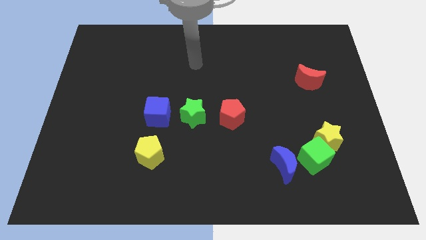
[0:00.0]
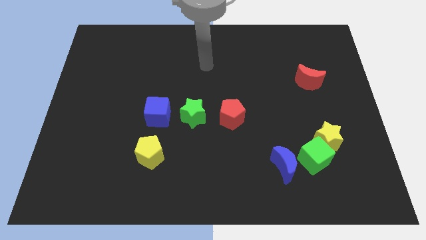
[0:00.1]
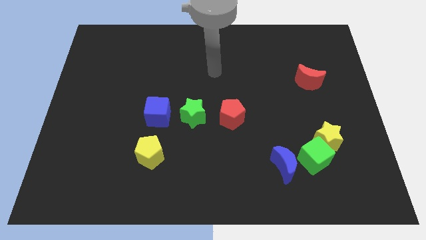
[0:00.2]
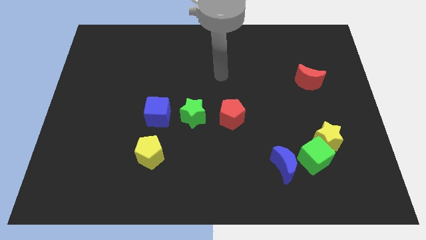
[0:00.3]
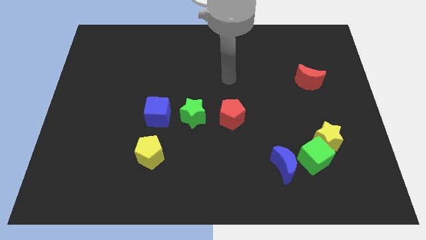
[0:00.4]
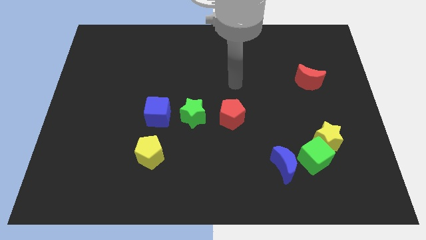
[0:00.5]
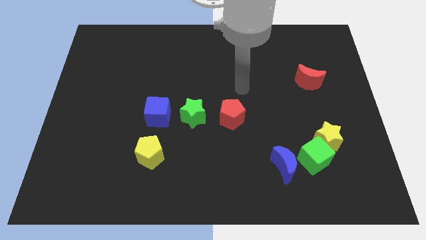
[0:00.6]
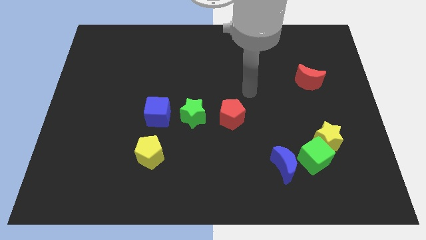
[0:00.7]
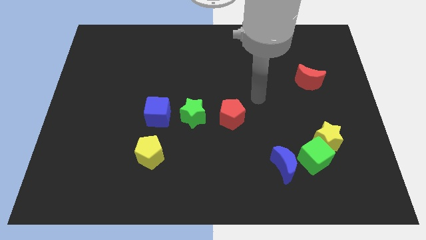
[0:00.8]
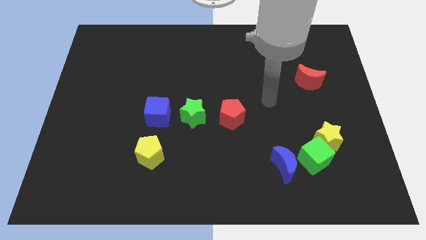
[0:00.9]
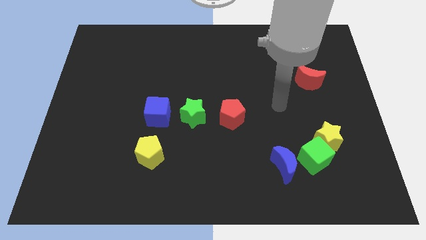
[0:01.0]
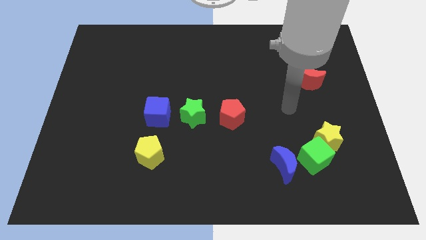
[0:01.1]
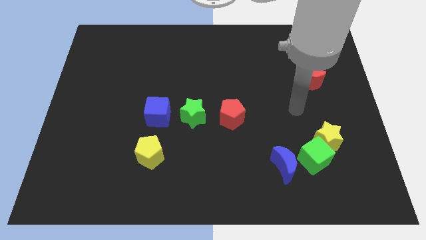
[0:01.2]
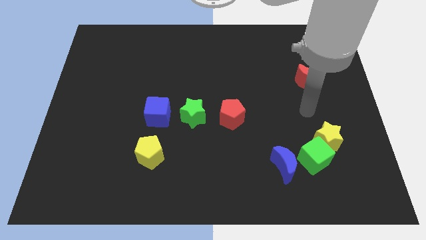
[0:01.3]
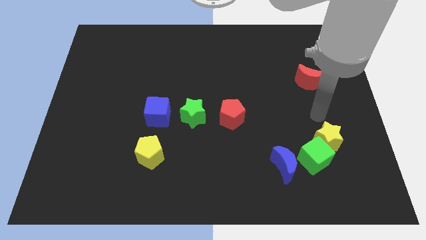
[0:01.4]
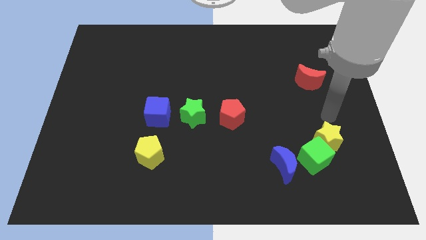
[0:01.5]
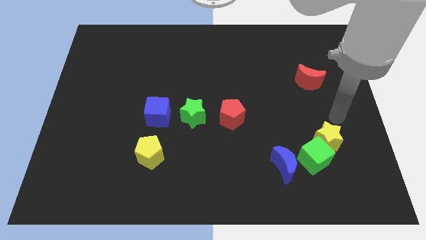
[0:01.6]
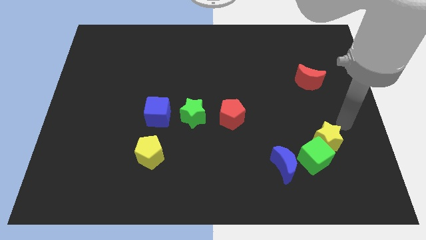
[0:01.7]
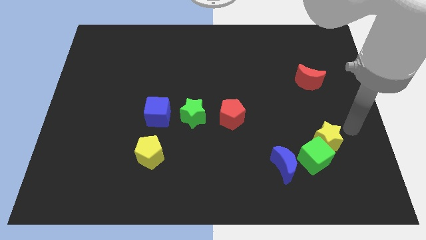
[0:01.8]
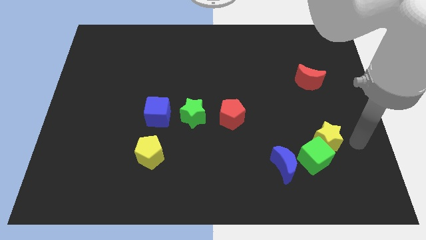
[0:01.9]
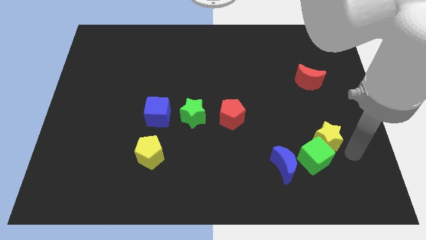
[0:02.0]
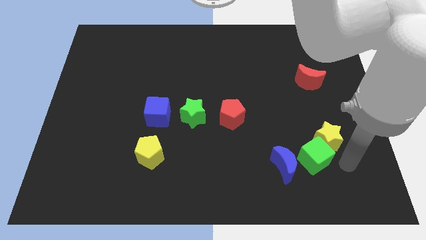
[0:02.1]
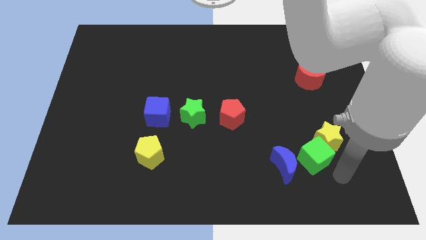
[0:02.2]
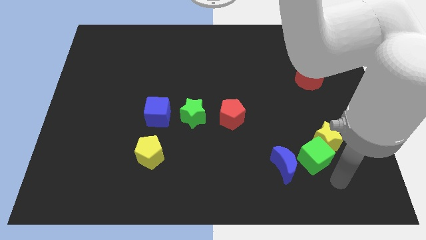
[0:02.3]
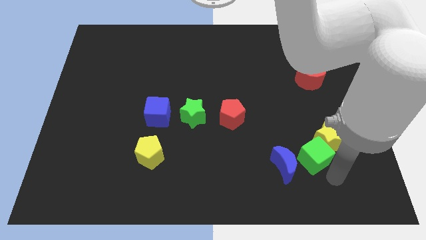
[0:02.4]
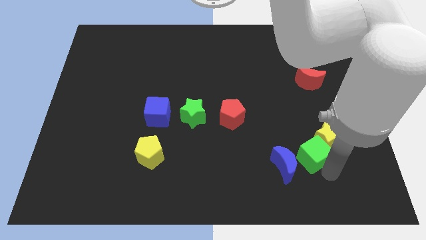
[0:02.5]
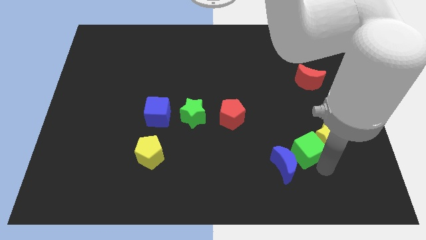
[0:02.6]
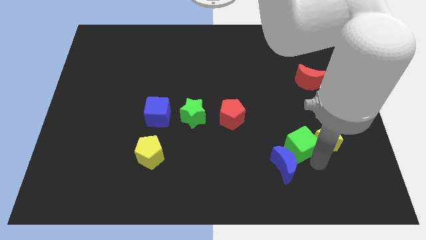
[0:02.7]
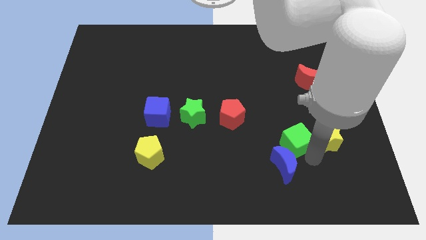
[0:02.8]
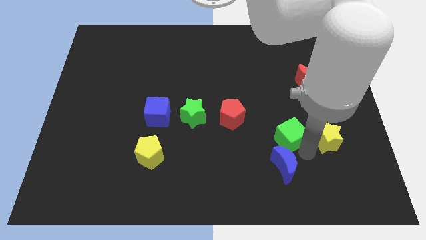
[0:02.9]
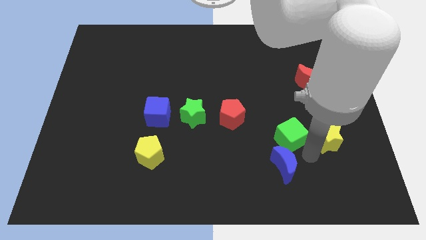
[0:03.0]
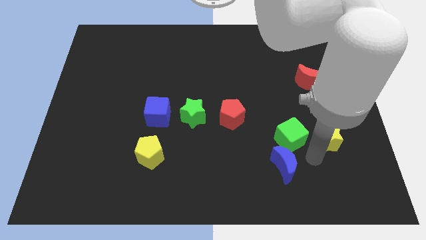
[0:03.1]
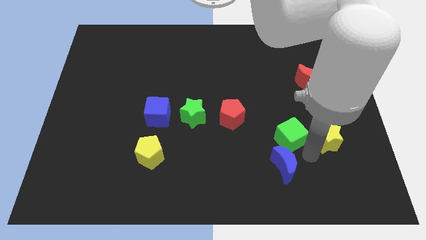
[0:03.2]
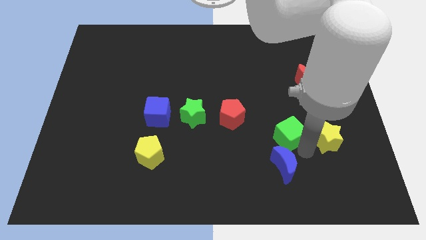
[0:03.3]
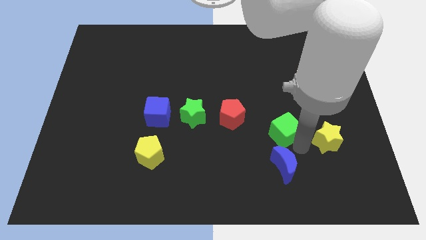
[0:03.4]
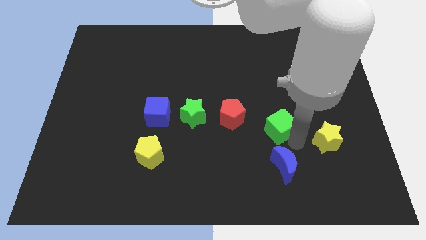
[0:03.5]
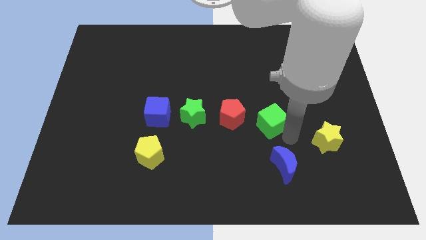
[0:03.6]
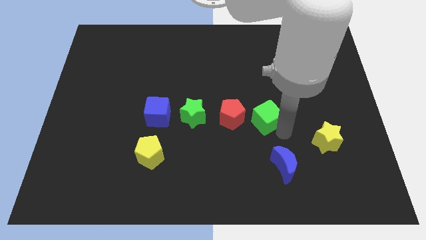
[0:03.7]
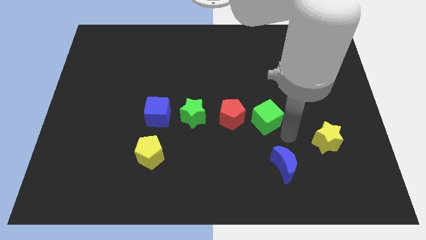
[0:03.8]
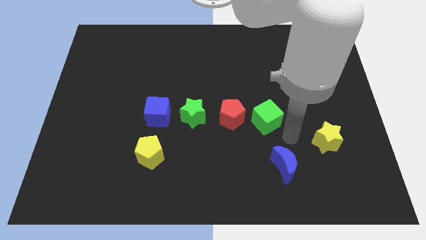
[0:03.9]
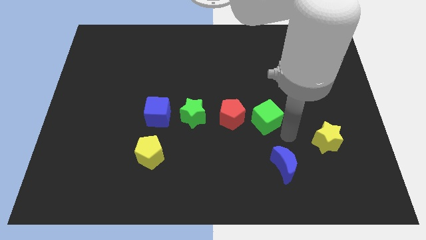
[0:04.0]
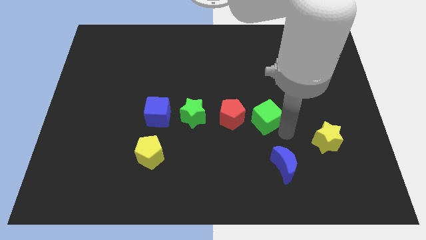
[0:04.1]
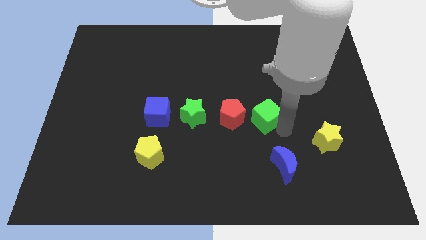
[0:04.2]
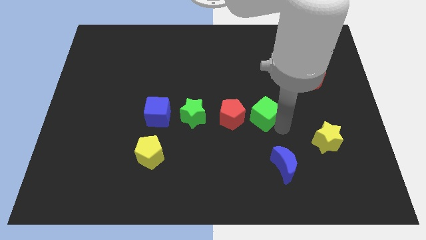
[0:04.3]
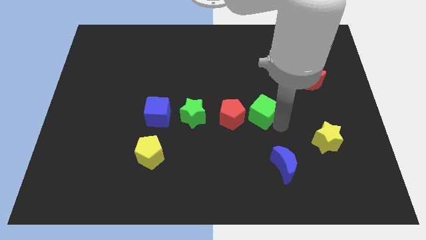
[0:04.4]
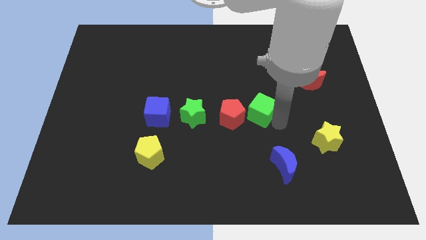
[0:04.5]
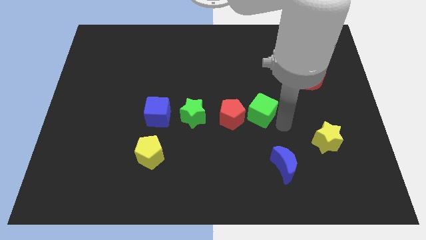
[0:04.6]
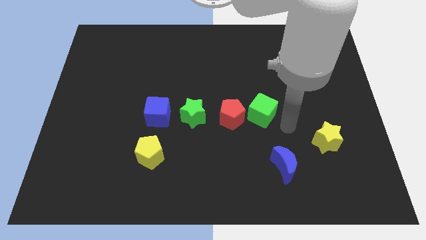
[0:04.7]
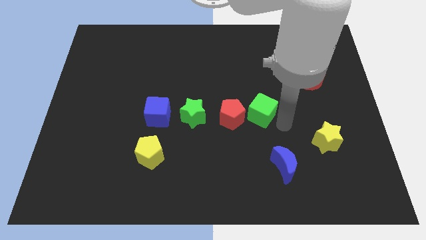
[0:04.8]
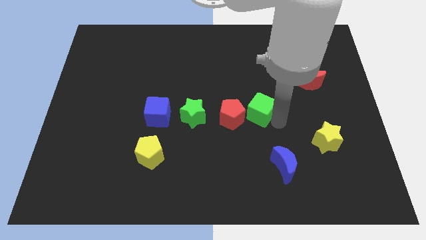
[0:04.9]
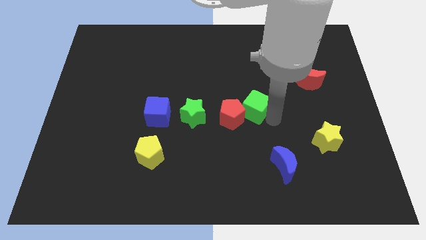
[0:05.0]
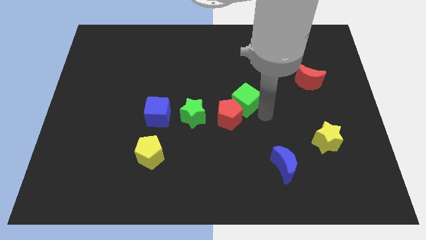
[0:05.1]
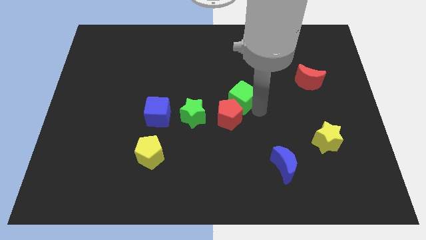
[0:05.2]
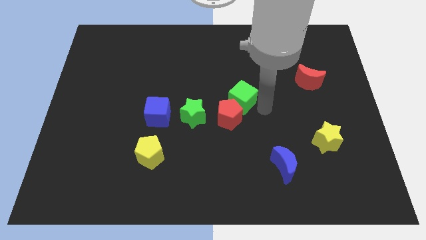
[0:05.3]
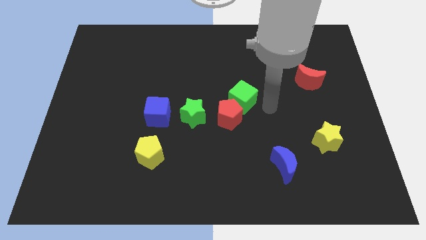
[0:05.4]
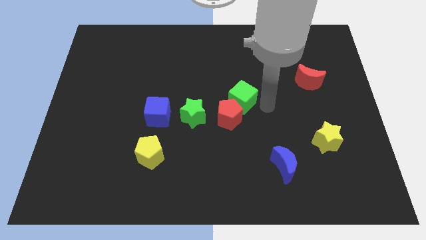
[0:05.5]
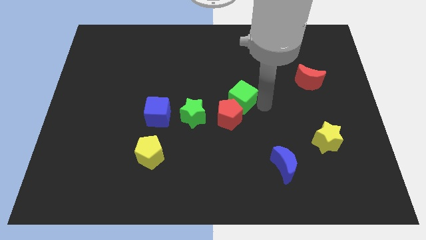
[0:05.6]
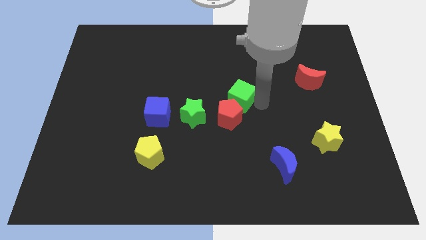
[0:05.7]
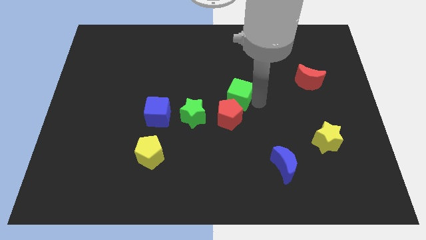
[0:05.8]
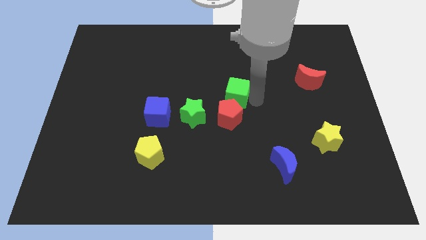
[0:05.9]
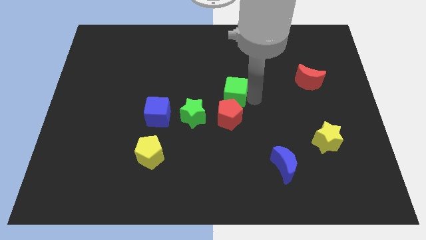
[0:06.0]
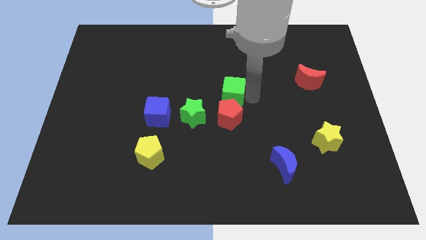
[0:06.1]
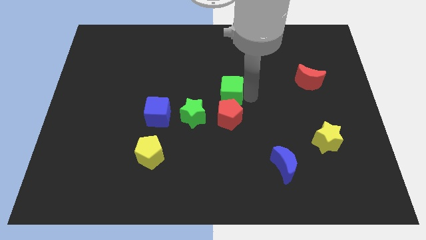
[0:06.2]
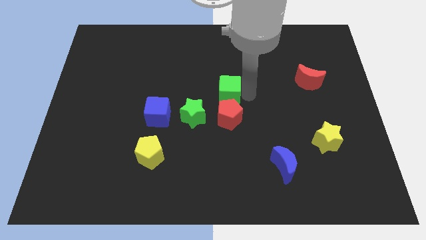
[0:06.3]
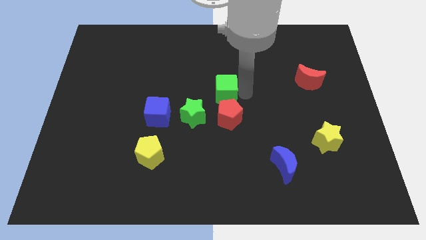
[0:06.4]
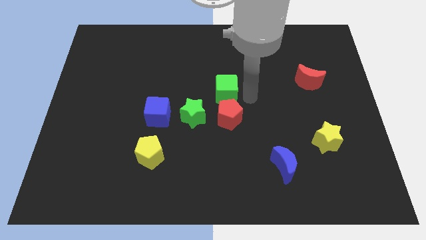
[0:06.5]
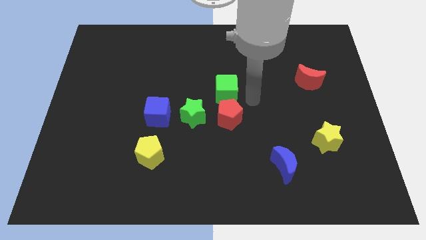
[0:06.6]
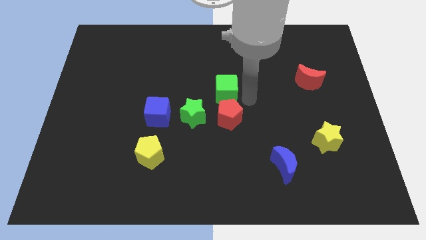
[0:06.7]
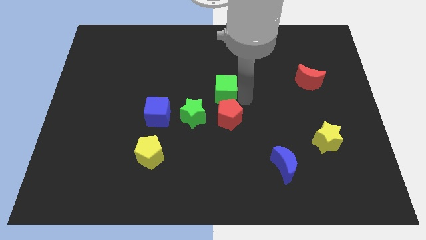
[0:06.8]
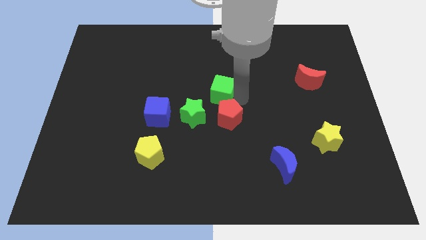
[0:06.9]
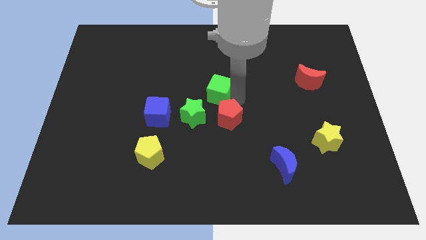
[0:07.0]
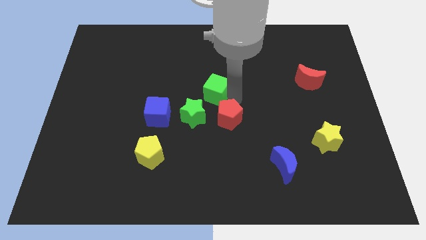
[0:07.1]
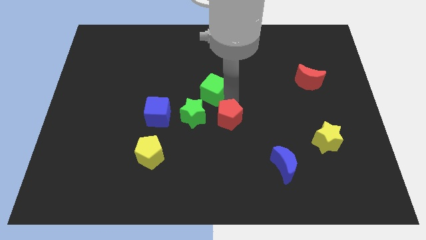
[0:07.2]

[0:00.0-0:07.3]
push the green cube above the green star
